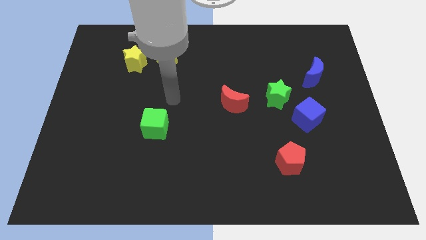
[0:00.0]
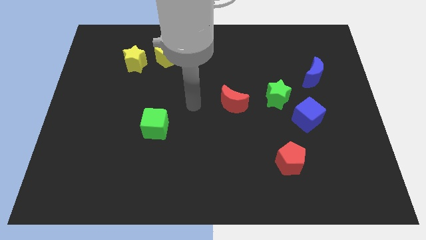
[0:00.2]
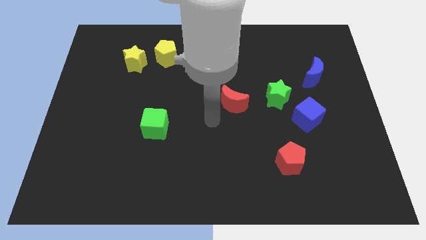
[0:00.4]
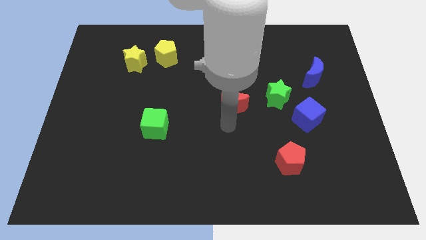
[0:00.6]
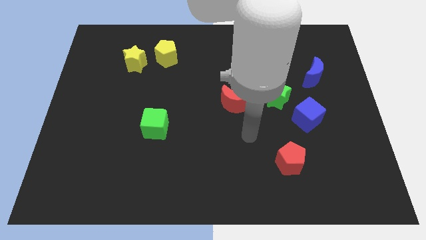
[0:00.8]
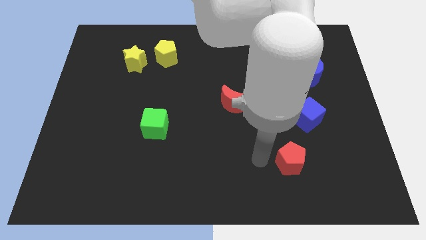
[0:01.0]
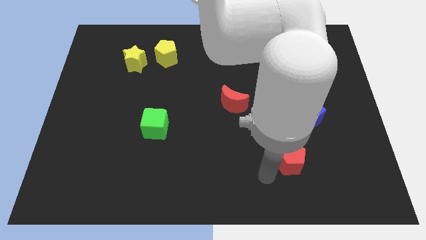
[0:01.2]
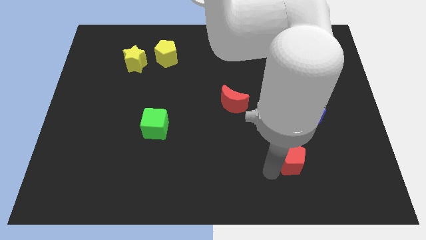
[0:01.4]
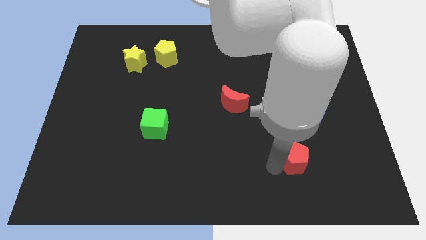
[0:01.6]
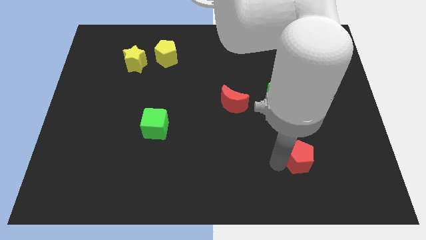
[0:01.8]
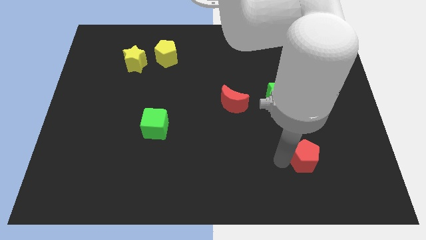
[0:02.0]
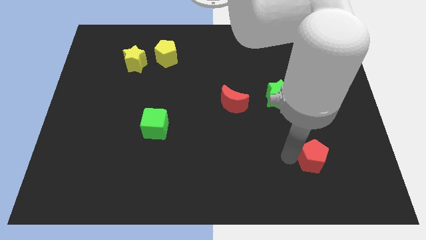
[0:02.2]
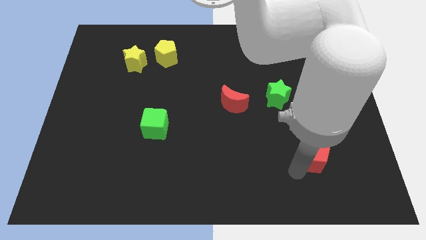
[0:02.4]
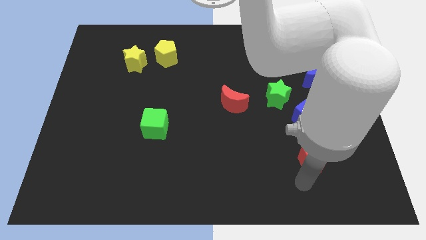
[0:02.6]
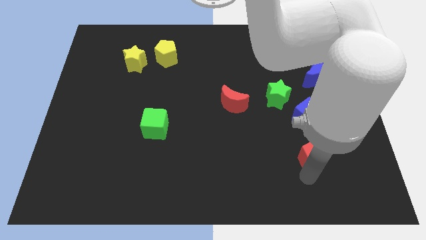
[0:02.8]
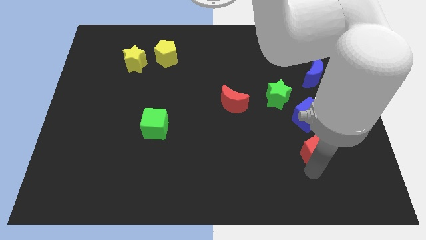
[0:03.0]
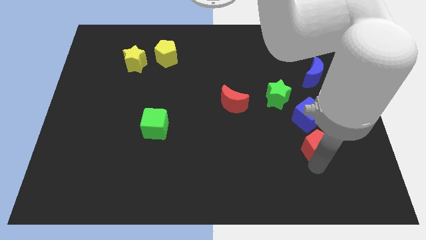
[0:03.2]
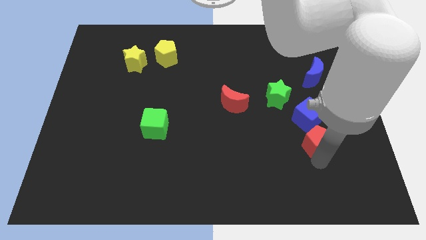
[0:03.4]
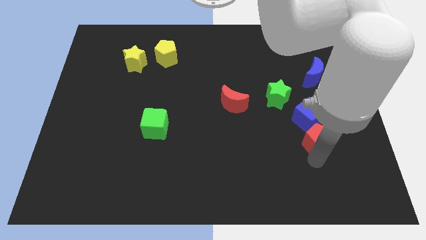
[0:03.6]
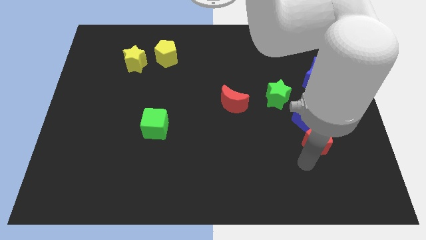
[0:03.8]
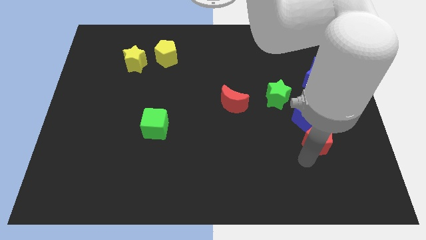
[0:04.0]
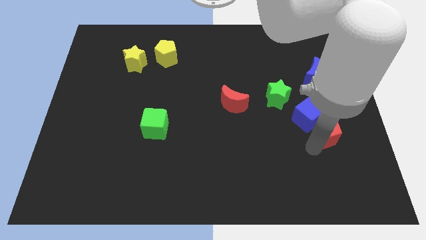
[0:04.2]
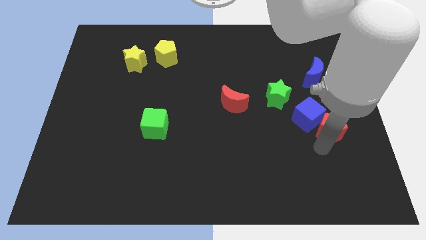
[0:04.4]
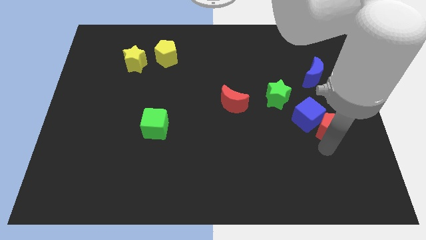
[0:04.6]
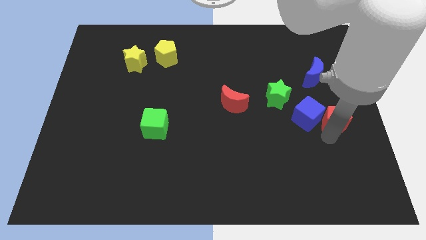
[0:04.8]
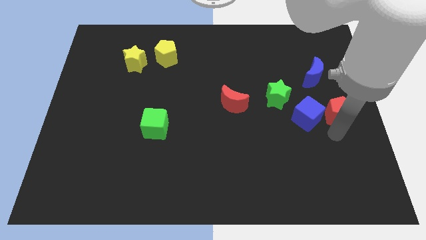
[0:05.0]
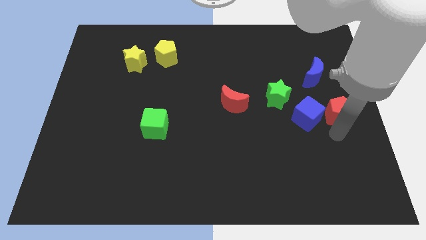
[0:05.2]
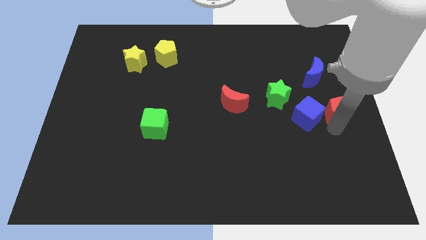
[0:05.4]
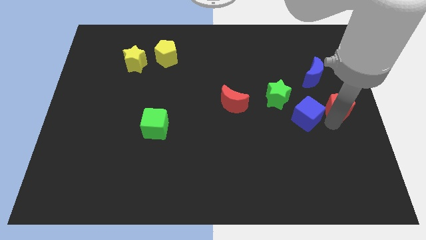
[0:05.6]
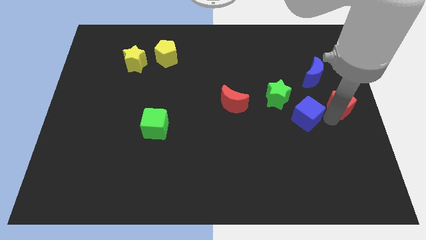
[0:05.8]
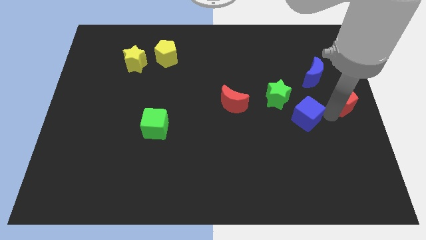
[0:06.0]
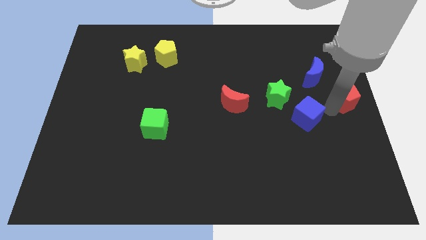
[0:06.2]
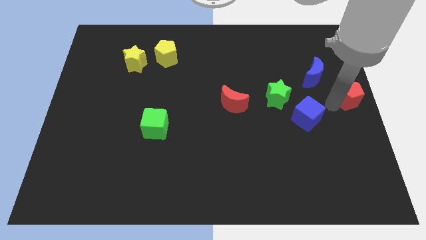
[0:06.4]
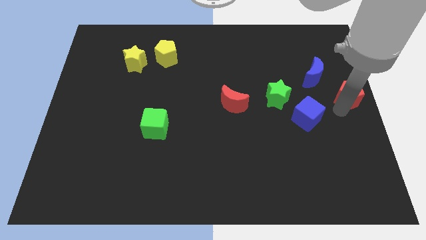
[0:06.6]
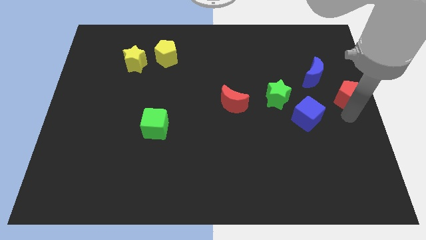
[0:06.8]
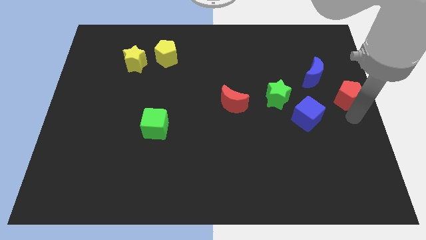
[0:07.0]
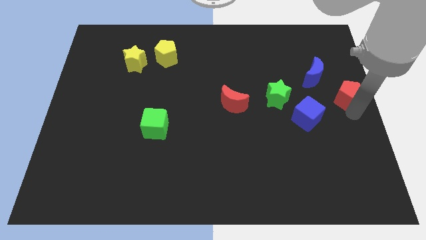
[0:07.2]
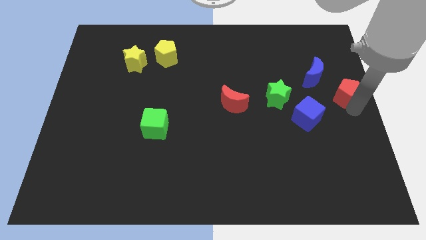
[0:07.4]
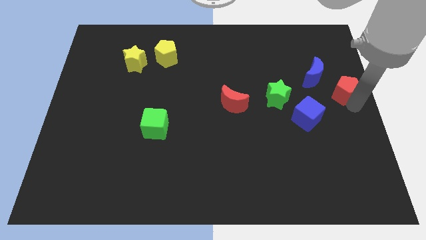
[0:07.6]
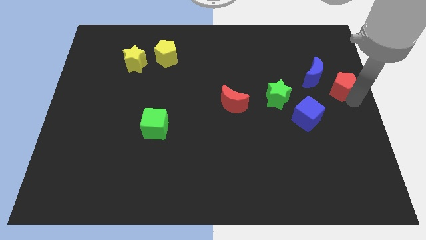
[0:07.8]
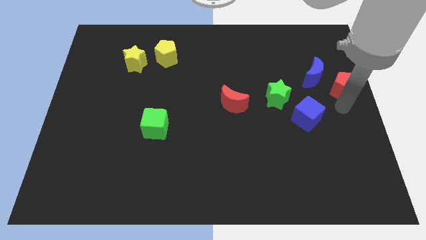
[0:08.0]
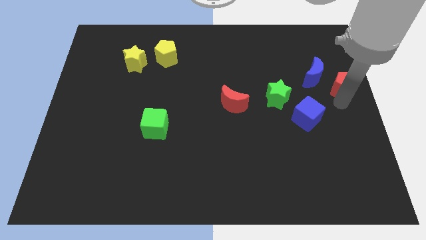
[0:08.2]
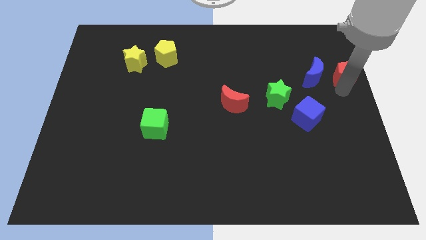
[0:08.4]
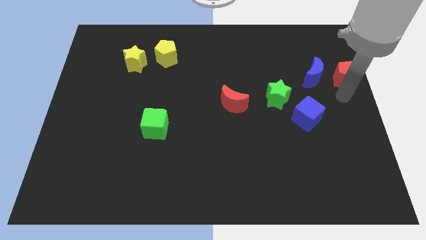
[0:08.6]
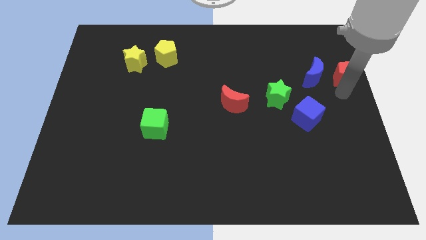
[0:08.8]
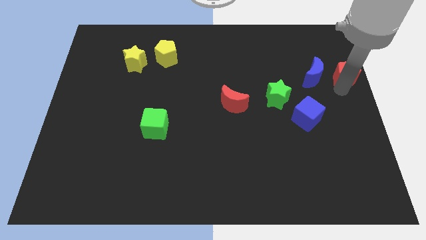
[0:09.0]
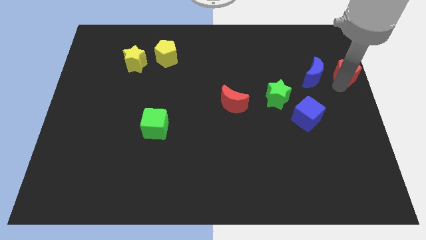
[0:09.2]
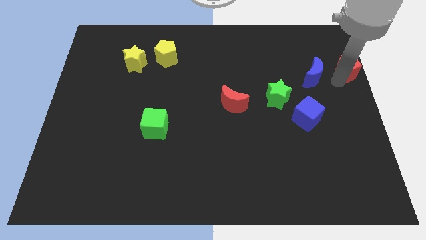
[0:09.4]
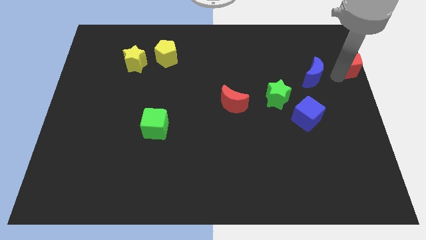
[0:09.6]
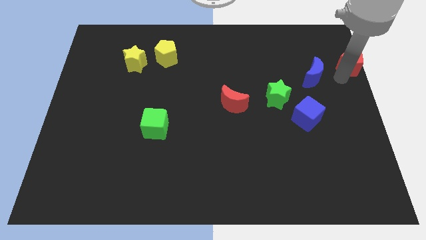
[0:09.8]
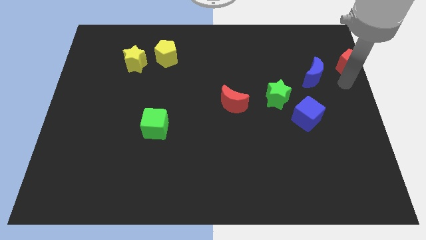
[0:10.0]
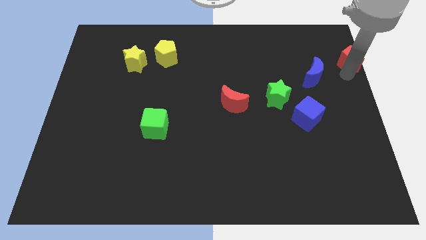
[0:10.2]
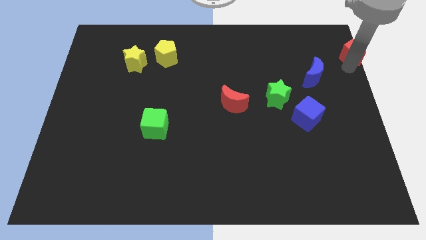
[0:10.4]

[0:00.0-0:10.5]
slide the red pentagon to the top right

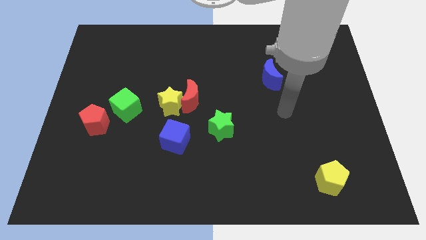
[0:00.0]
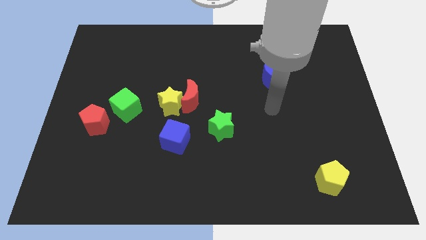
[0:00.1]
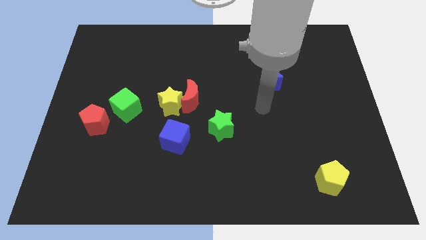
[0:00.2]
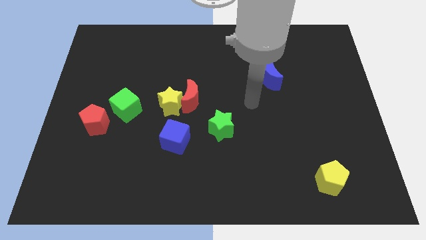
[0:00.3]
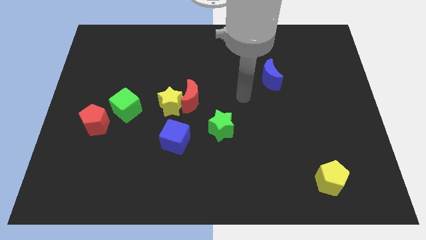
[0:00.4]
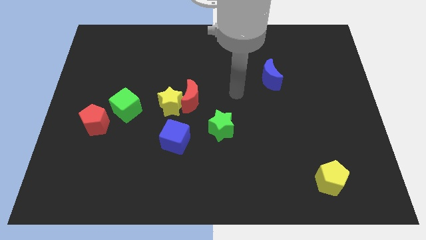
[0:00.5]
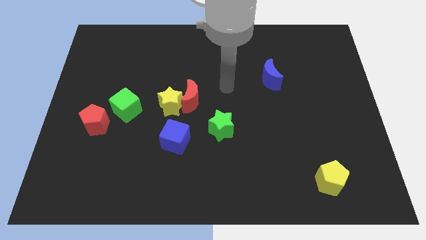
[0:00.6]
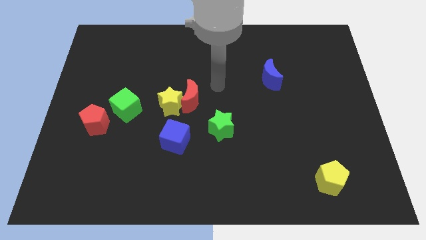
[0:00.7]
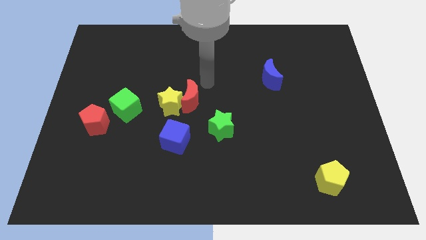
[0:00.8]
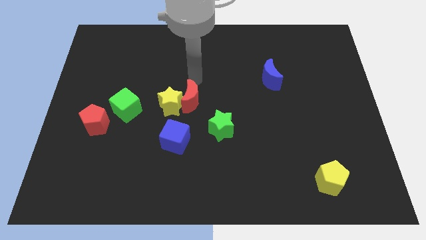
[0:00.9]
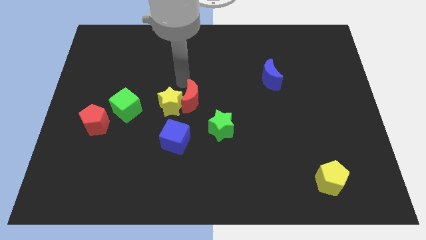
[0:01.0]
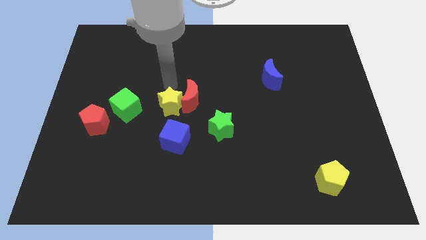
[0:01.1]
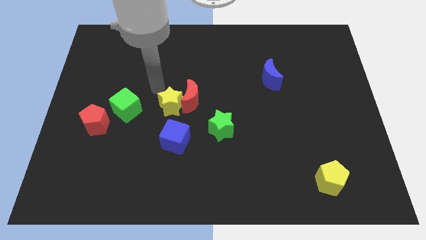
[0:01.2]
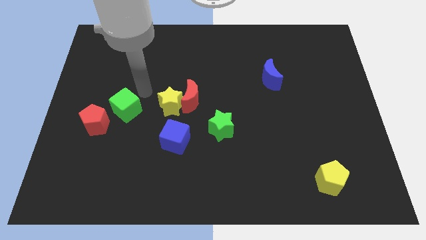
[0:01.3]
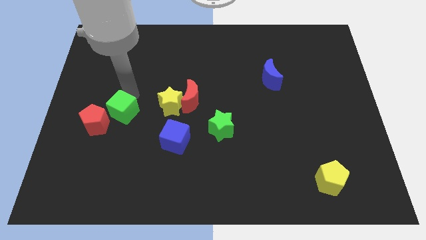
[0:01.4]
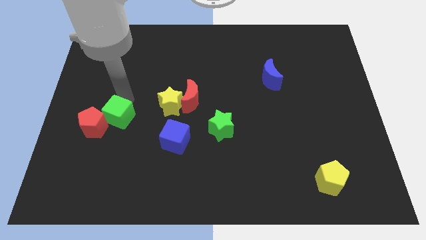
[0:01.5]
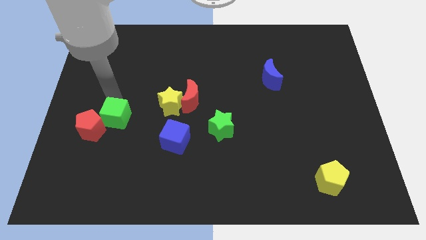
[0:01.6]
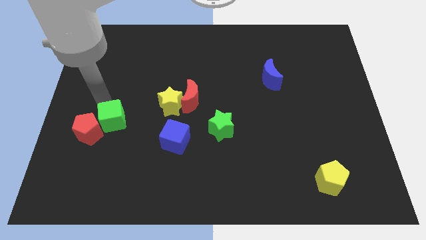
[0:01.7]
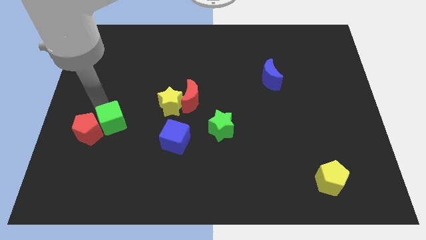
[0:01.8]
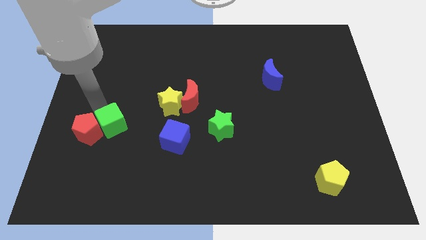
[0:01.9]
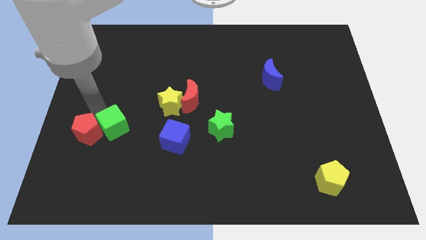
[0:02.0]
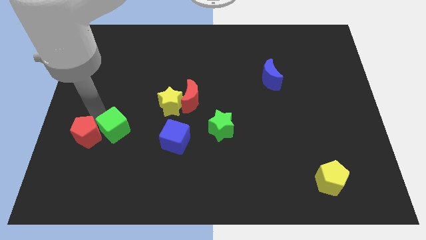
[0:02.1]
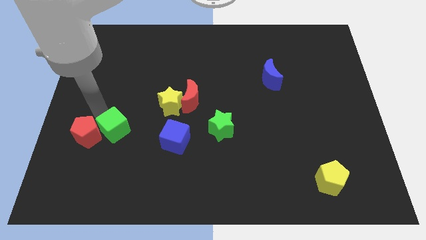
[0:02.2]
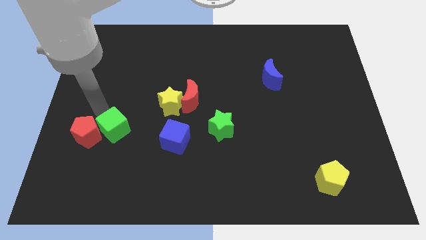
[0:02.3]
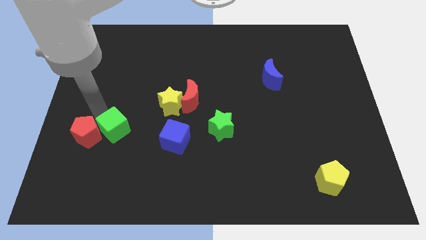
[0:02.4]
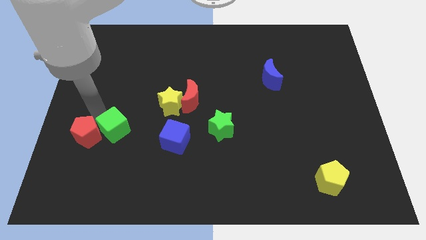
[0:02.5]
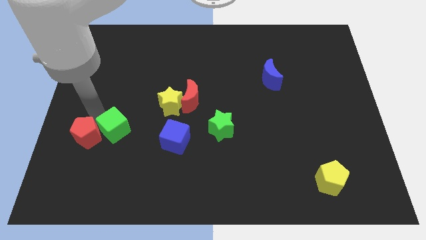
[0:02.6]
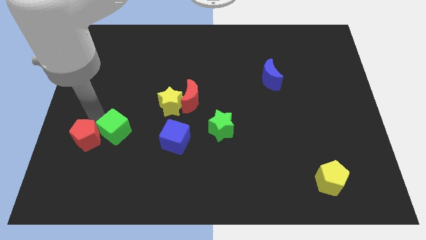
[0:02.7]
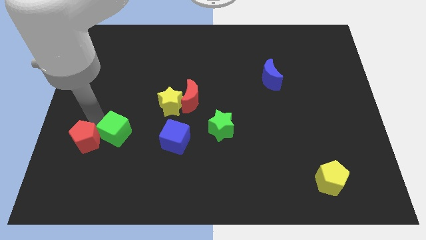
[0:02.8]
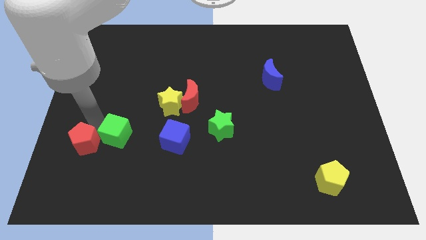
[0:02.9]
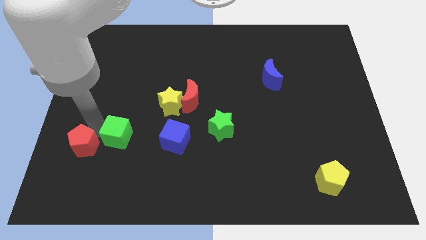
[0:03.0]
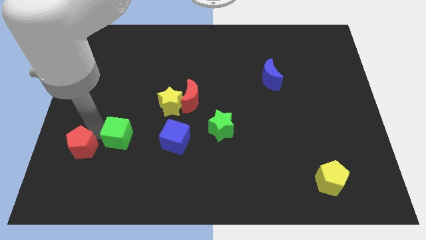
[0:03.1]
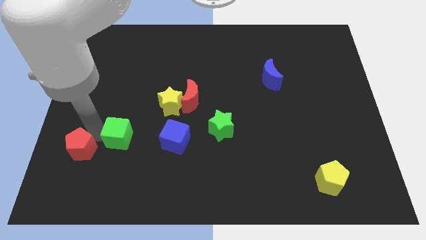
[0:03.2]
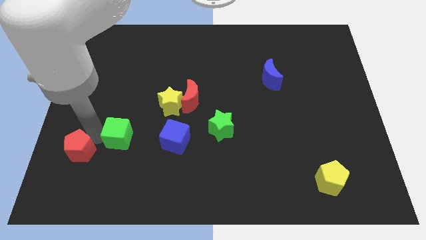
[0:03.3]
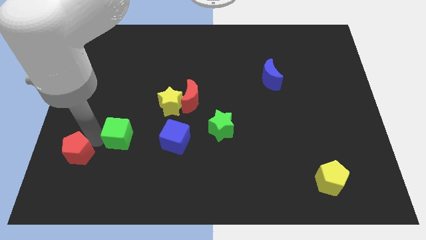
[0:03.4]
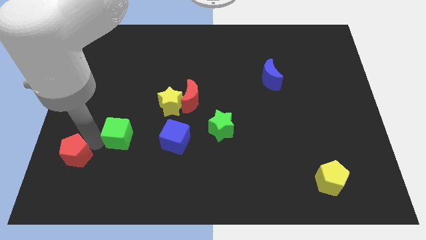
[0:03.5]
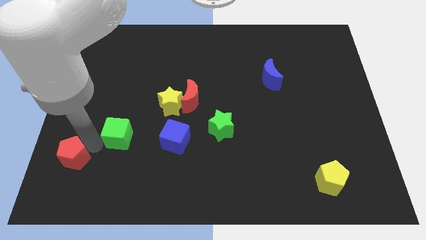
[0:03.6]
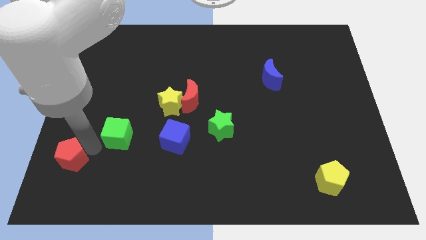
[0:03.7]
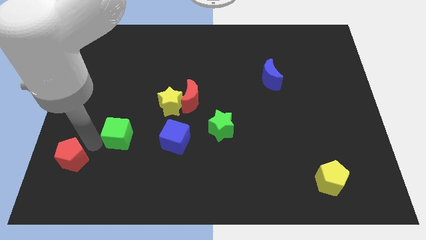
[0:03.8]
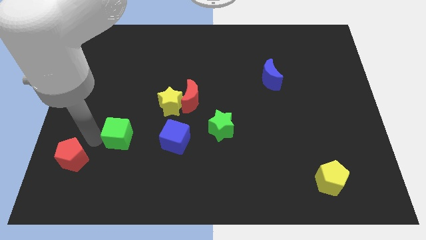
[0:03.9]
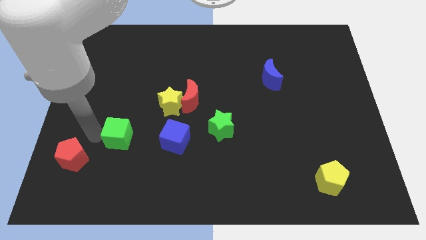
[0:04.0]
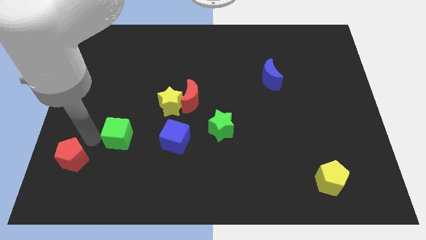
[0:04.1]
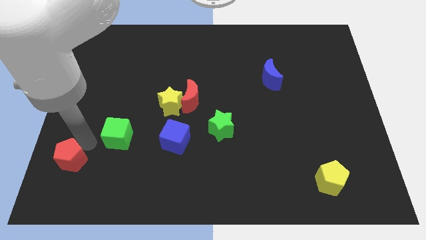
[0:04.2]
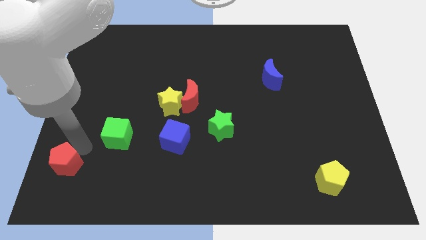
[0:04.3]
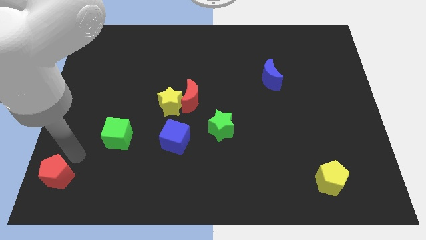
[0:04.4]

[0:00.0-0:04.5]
slide the red pentagon to the bottom left
